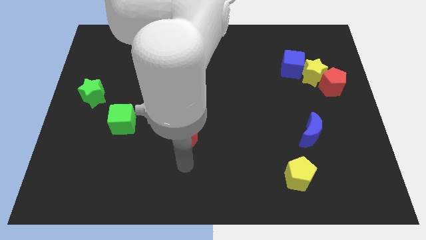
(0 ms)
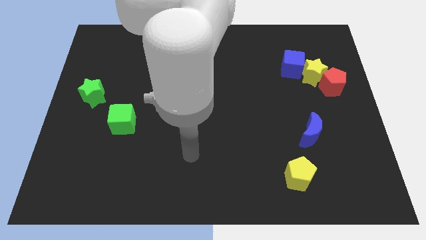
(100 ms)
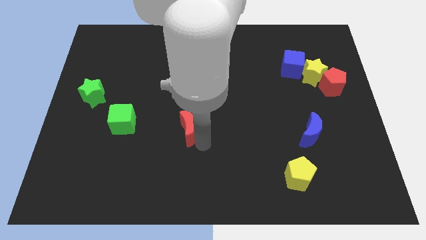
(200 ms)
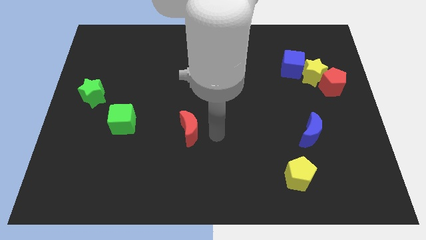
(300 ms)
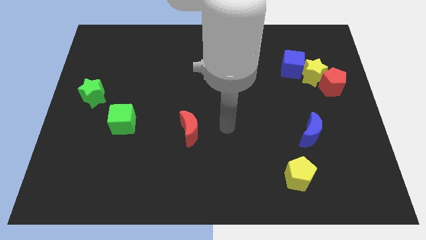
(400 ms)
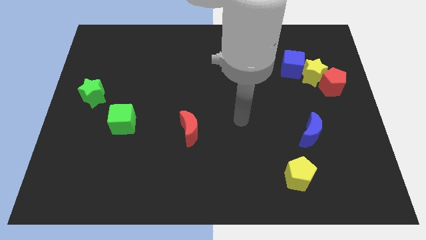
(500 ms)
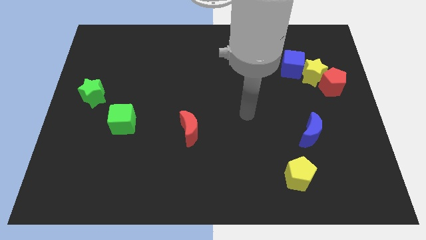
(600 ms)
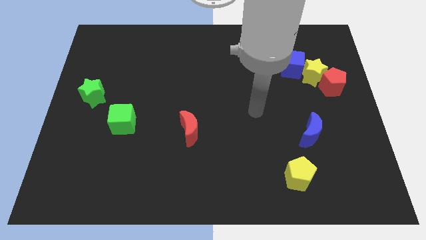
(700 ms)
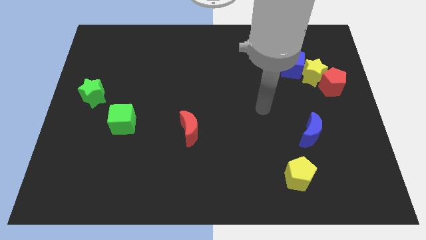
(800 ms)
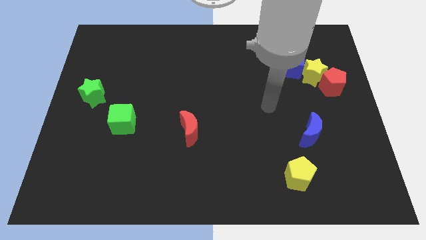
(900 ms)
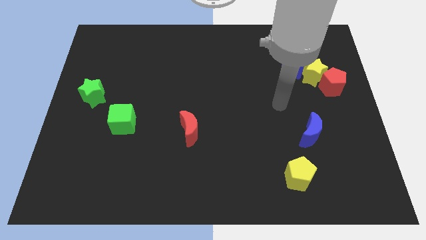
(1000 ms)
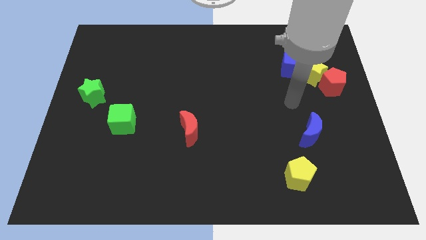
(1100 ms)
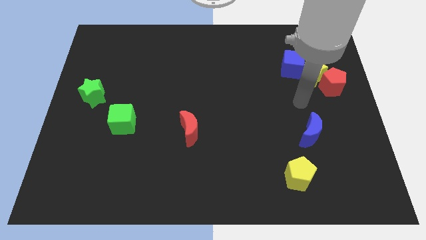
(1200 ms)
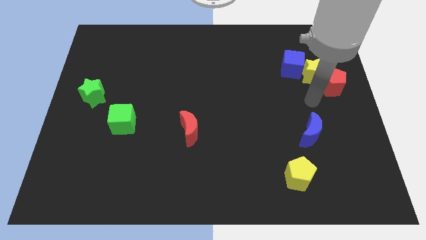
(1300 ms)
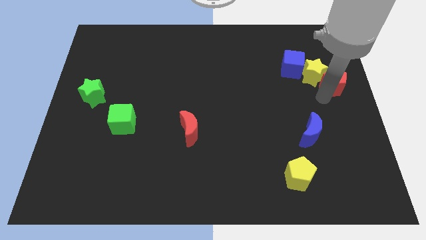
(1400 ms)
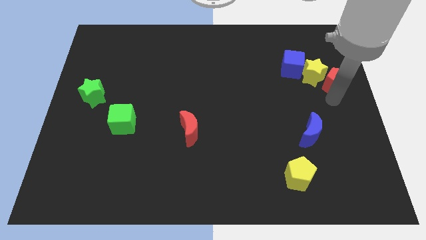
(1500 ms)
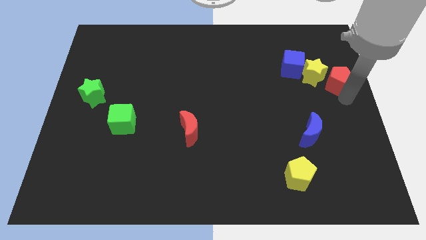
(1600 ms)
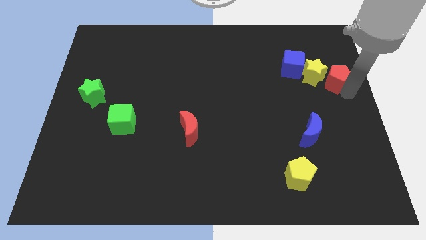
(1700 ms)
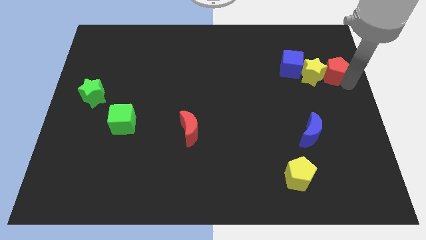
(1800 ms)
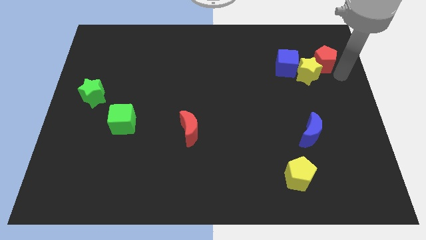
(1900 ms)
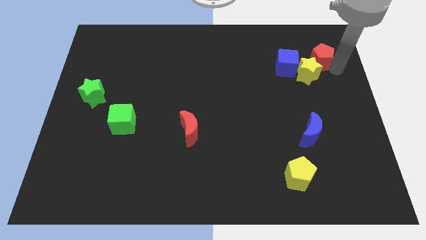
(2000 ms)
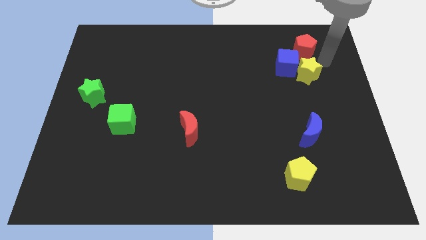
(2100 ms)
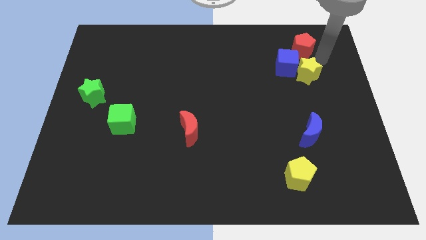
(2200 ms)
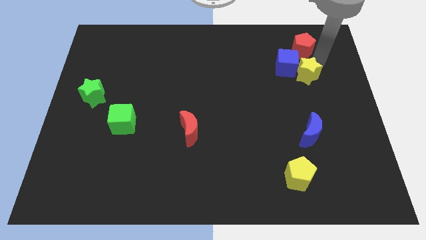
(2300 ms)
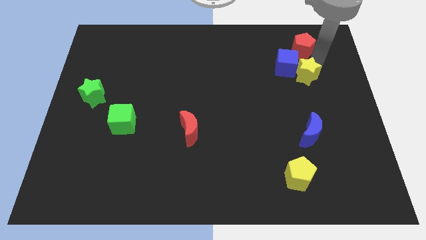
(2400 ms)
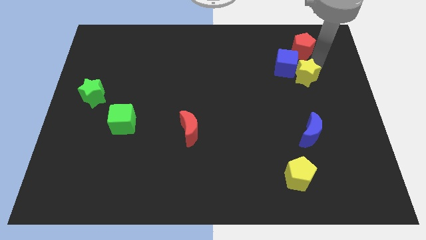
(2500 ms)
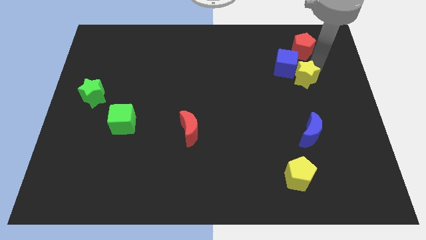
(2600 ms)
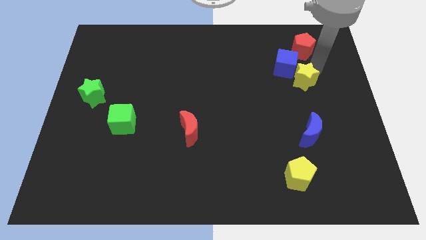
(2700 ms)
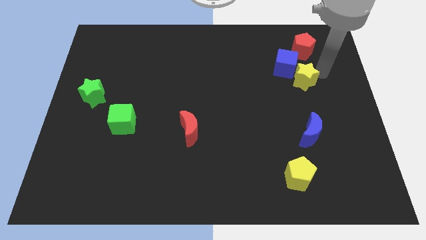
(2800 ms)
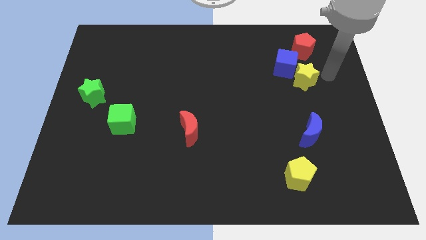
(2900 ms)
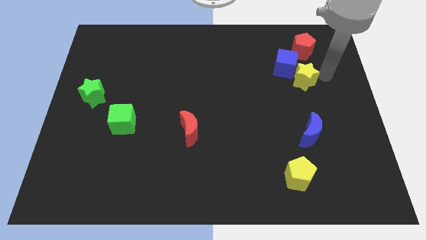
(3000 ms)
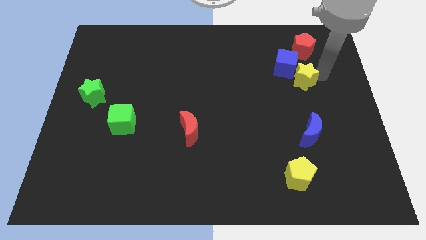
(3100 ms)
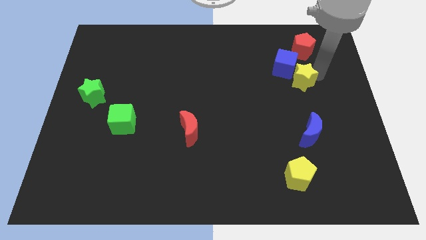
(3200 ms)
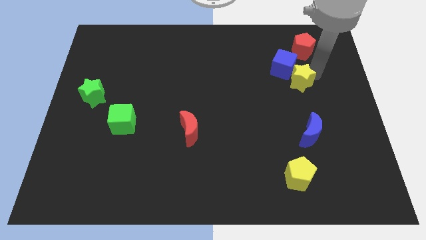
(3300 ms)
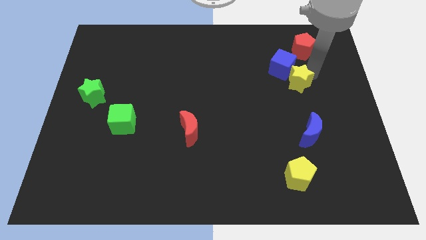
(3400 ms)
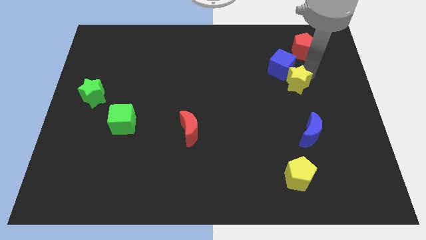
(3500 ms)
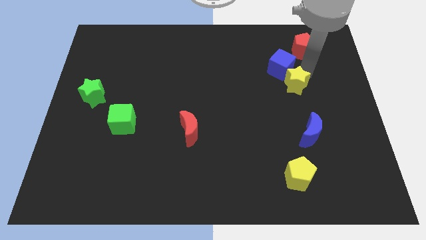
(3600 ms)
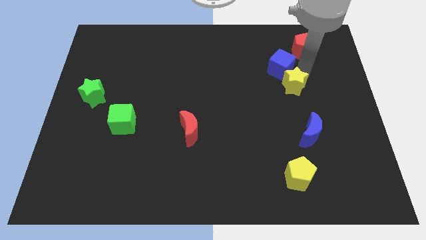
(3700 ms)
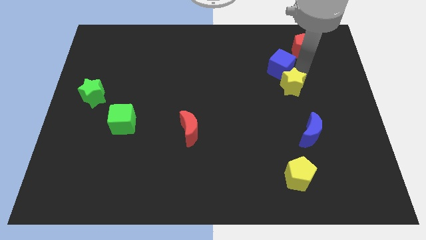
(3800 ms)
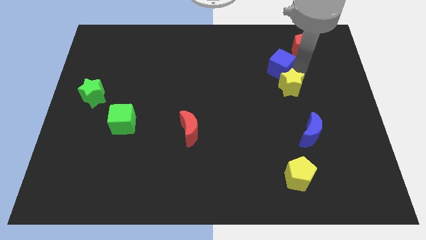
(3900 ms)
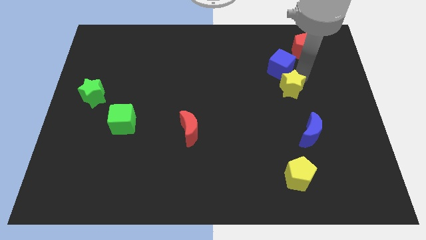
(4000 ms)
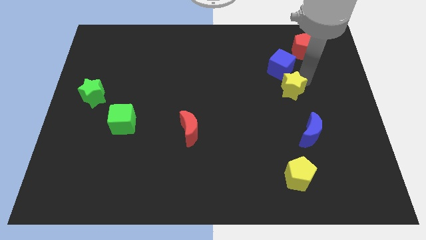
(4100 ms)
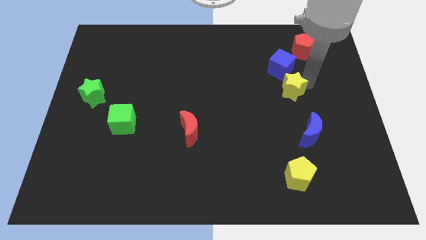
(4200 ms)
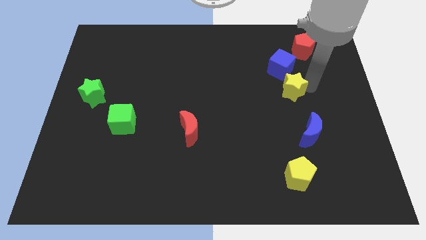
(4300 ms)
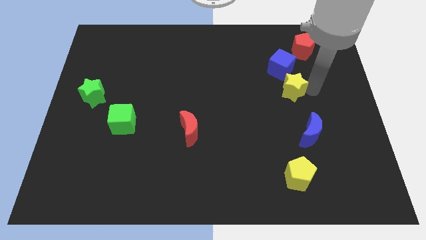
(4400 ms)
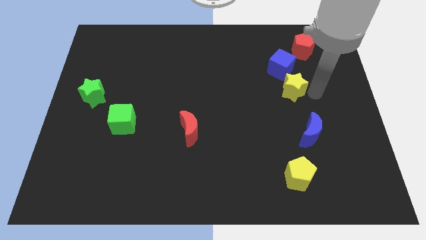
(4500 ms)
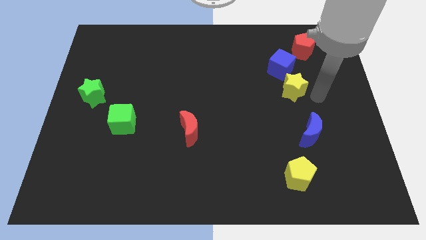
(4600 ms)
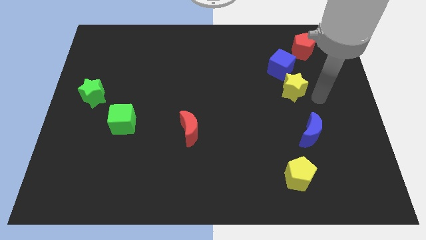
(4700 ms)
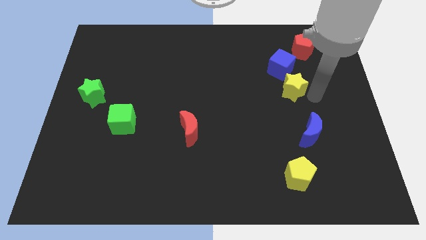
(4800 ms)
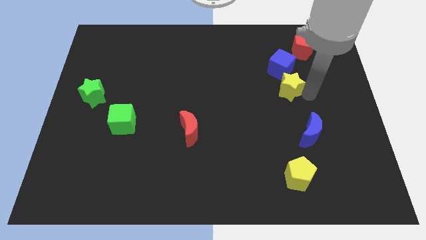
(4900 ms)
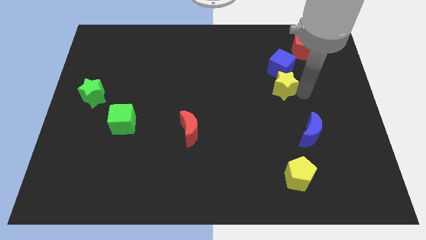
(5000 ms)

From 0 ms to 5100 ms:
push the yellow star left a little

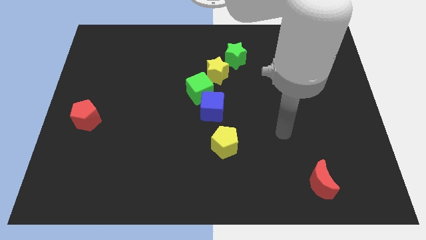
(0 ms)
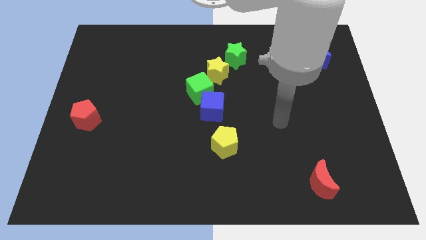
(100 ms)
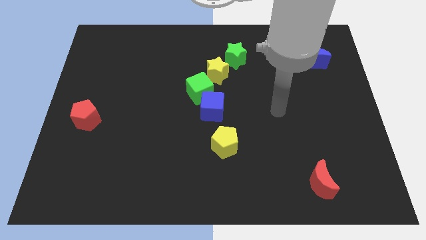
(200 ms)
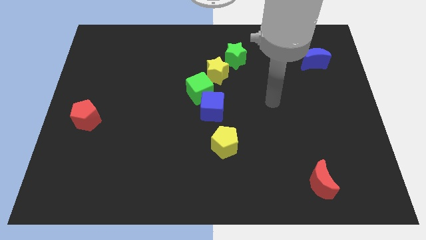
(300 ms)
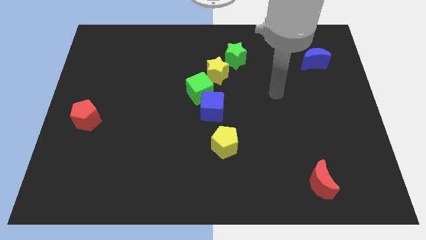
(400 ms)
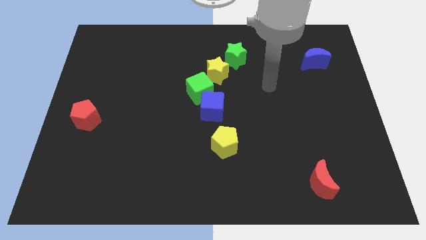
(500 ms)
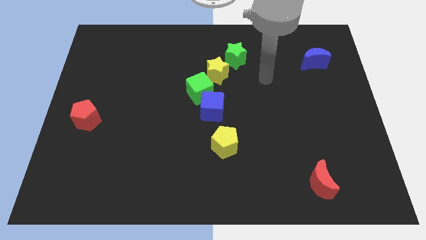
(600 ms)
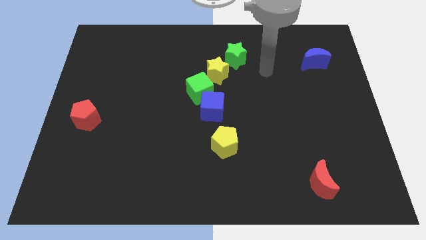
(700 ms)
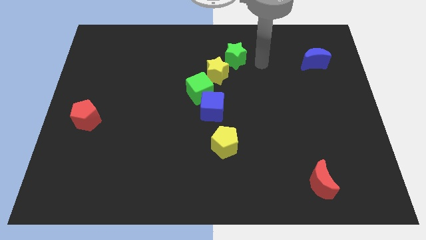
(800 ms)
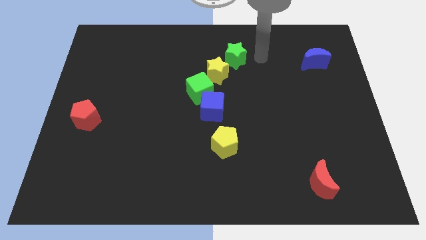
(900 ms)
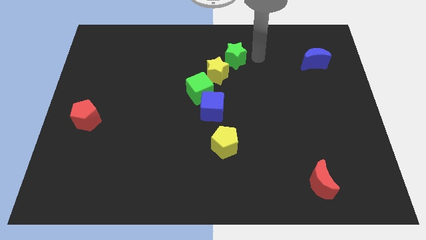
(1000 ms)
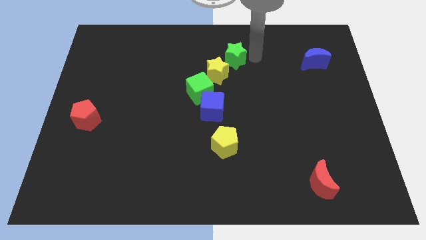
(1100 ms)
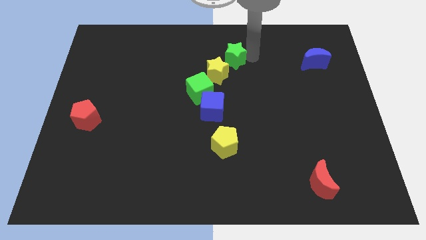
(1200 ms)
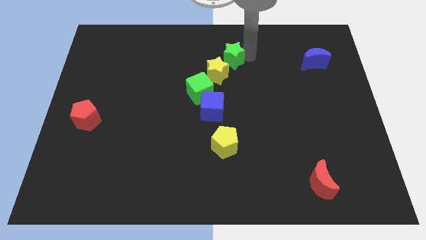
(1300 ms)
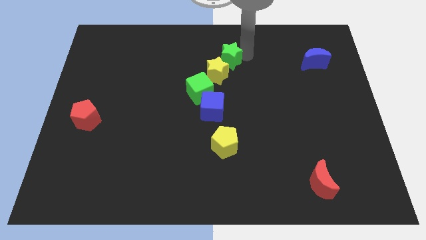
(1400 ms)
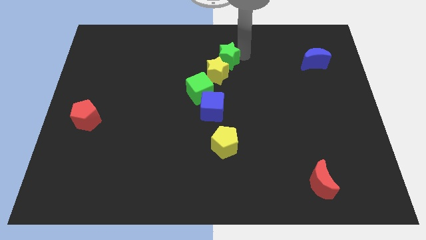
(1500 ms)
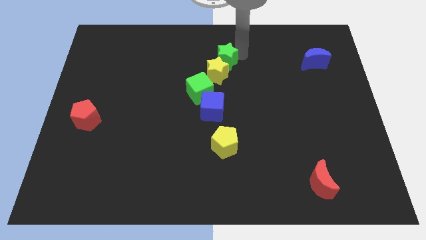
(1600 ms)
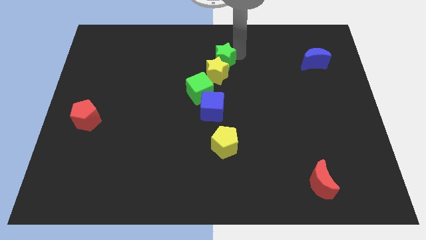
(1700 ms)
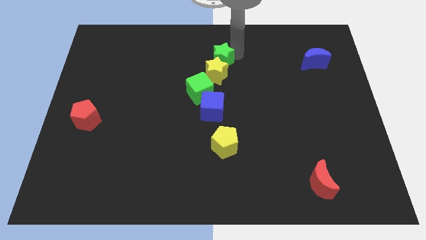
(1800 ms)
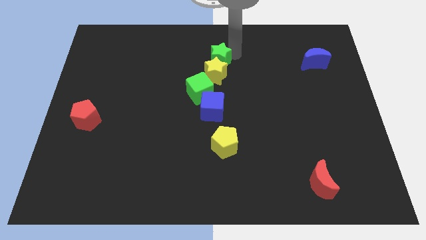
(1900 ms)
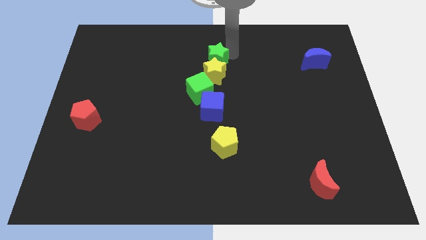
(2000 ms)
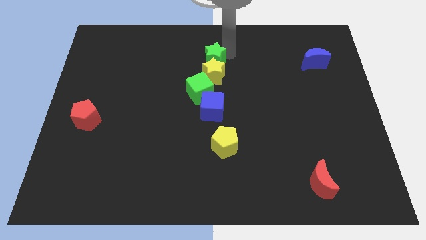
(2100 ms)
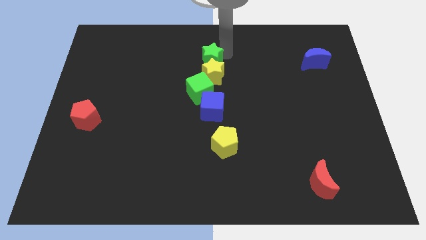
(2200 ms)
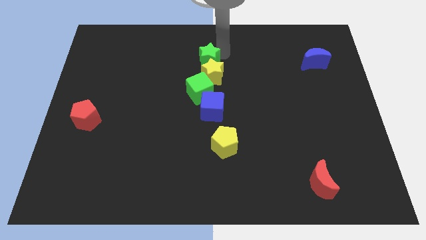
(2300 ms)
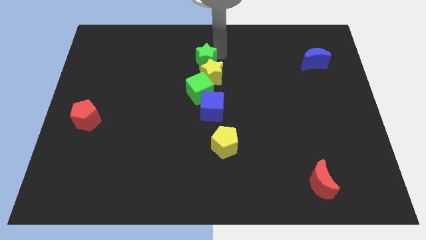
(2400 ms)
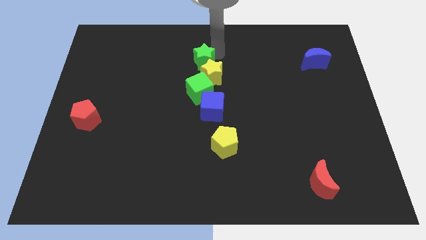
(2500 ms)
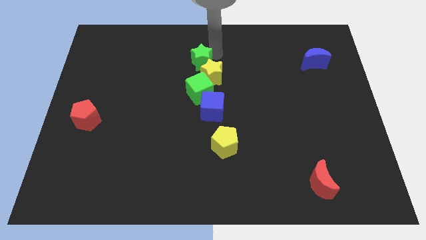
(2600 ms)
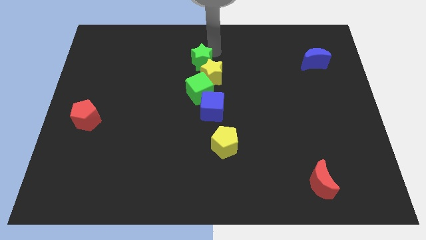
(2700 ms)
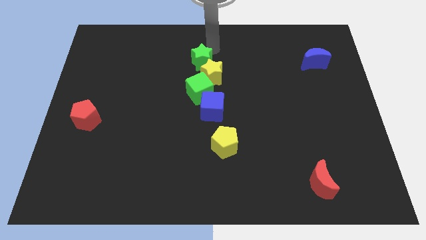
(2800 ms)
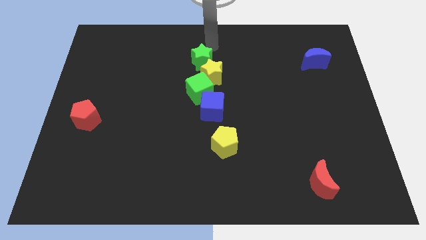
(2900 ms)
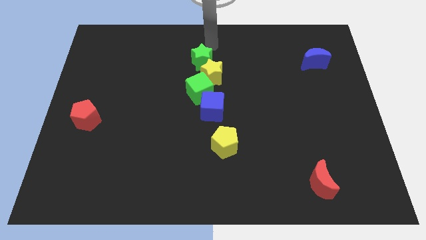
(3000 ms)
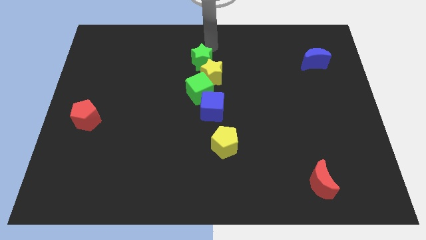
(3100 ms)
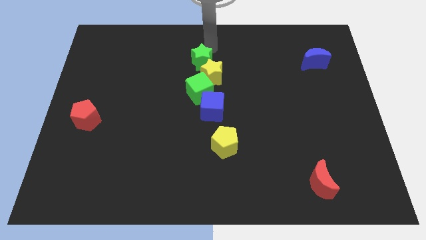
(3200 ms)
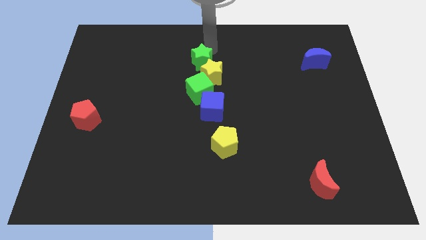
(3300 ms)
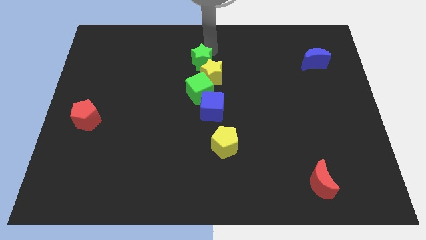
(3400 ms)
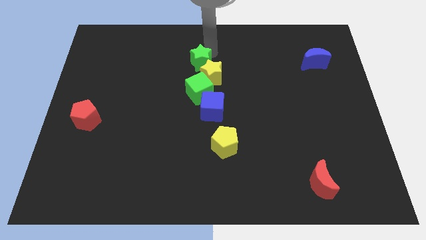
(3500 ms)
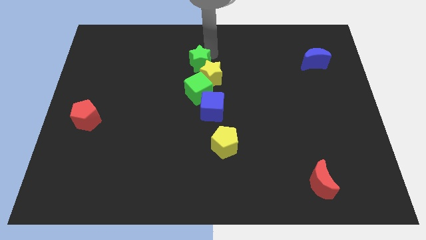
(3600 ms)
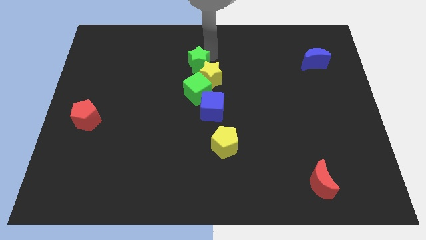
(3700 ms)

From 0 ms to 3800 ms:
move the green star downwards and then to the left a little bit
